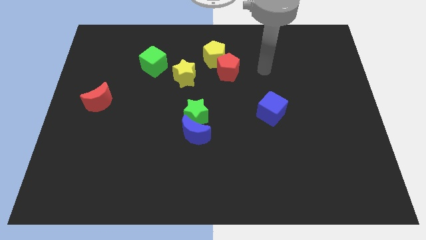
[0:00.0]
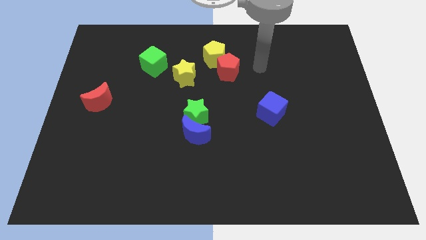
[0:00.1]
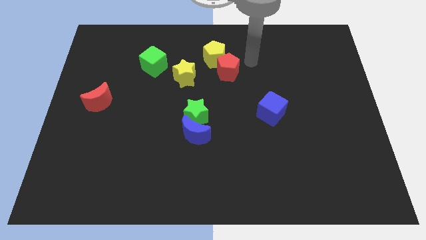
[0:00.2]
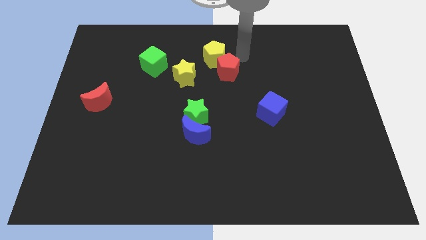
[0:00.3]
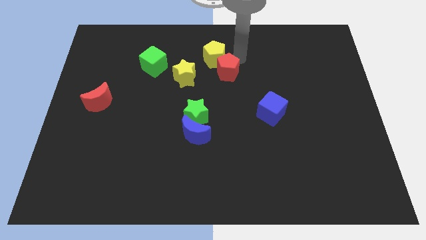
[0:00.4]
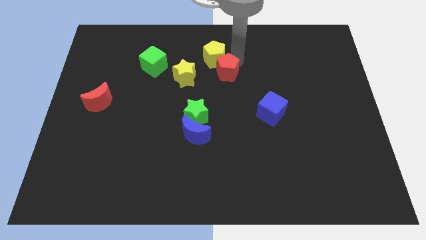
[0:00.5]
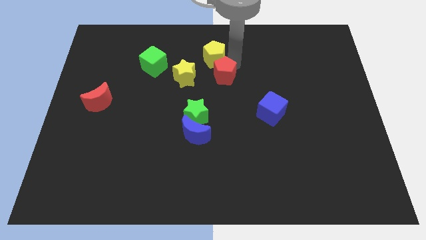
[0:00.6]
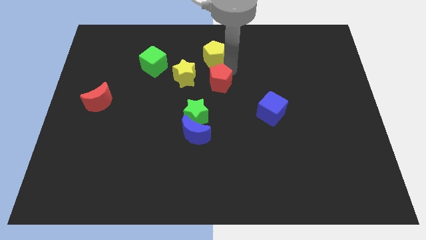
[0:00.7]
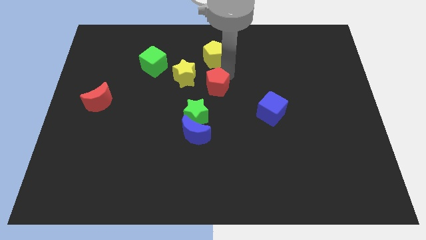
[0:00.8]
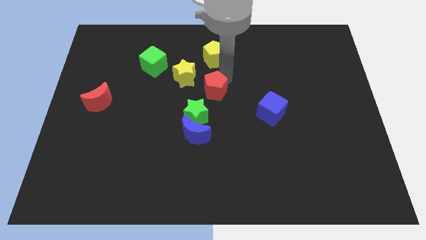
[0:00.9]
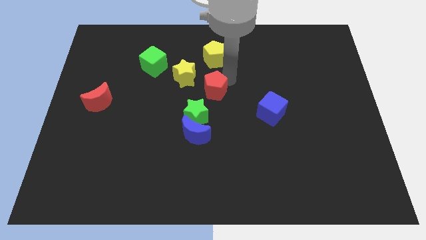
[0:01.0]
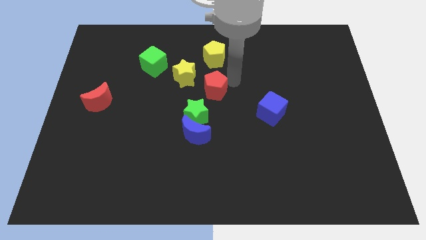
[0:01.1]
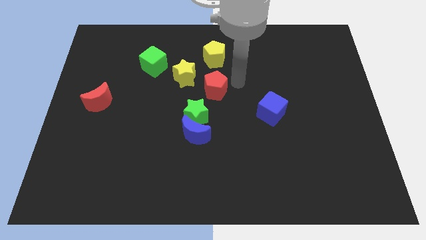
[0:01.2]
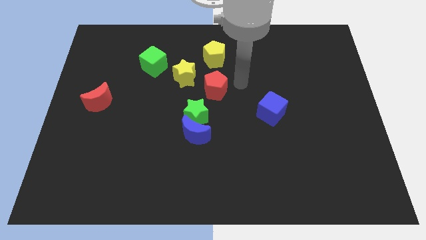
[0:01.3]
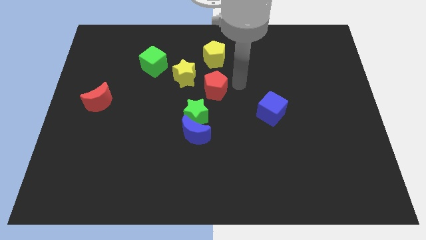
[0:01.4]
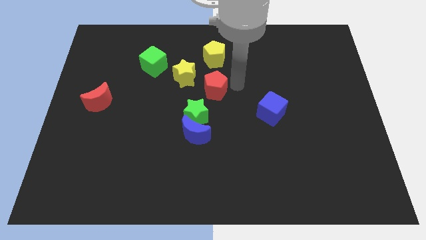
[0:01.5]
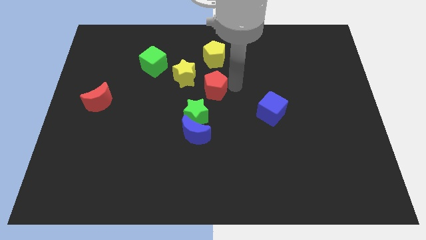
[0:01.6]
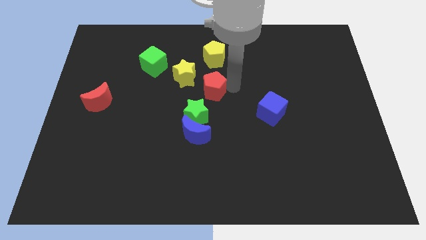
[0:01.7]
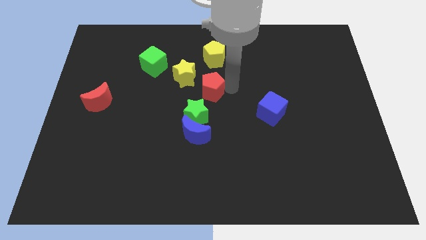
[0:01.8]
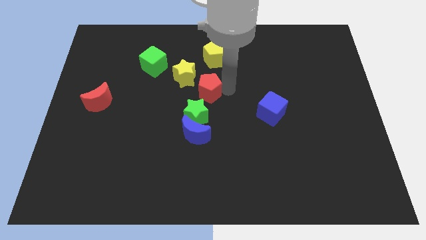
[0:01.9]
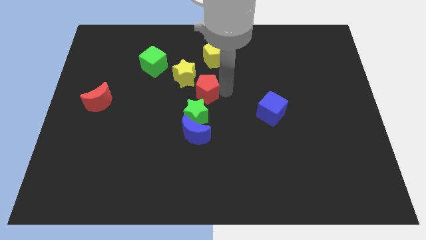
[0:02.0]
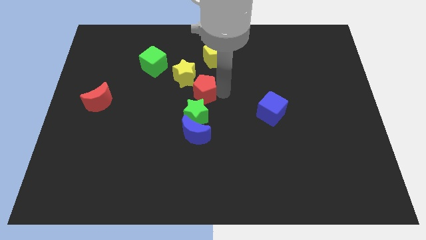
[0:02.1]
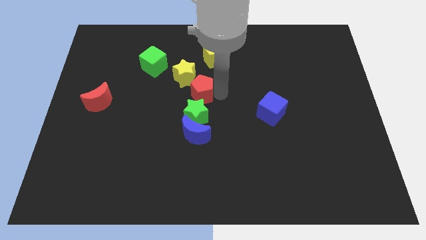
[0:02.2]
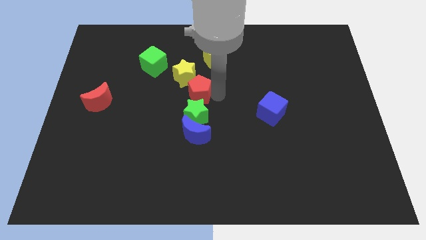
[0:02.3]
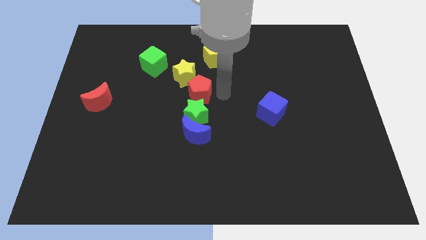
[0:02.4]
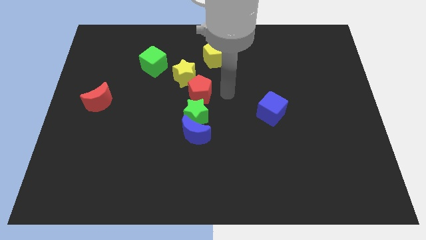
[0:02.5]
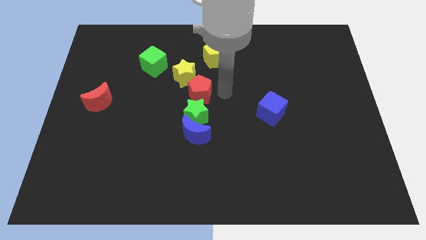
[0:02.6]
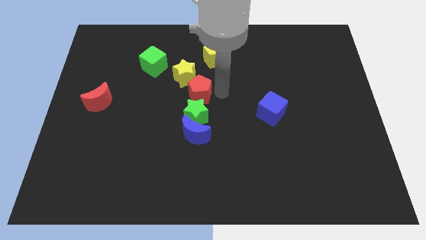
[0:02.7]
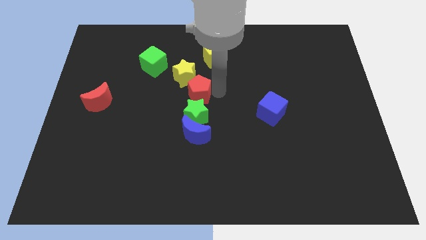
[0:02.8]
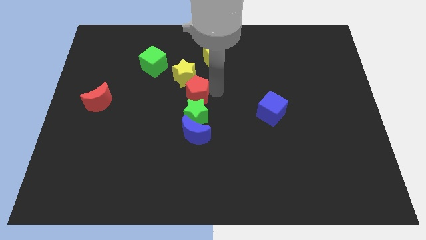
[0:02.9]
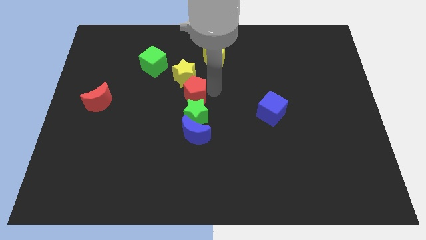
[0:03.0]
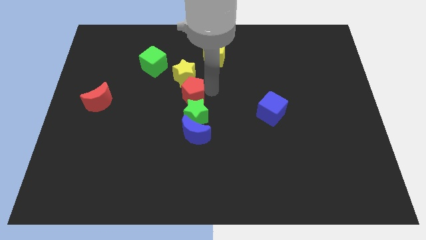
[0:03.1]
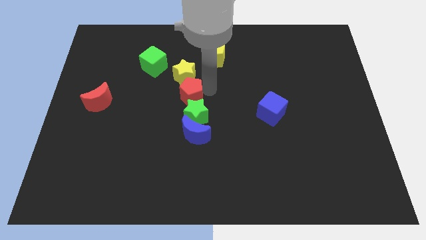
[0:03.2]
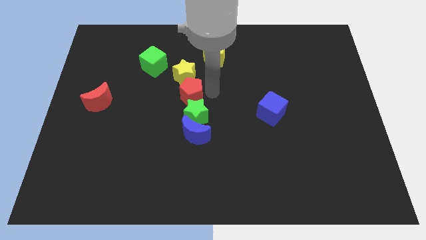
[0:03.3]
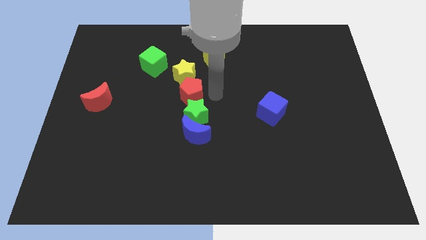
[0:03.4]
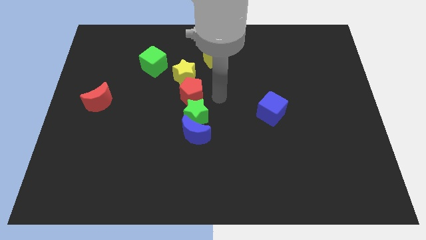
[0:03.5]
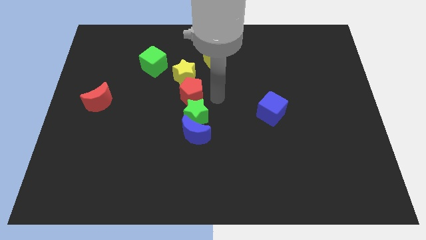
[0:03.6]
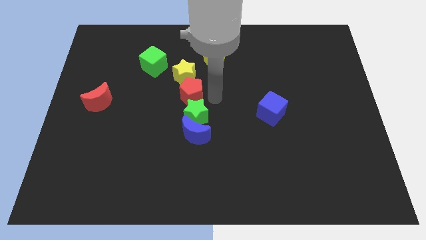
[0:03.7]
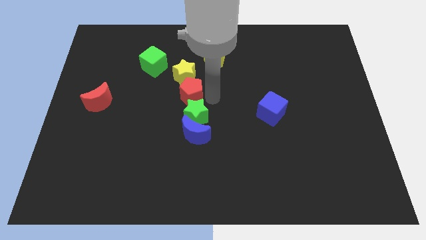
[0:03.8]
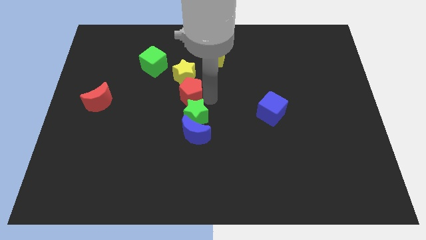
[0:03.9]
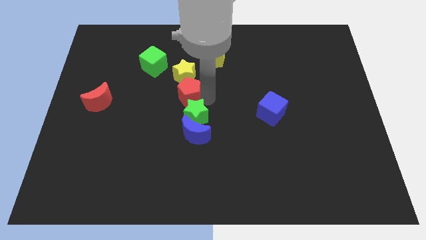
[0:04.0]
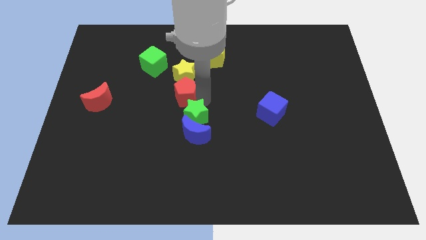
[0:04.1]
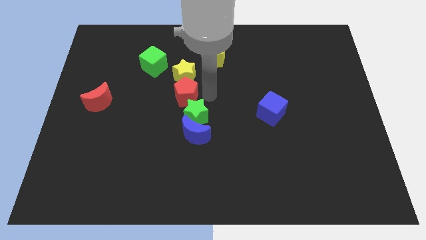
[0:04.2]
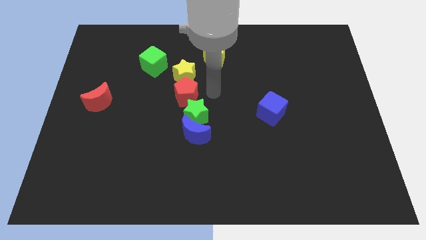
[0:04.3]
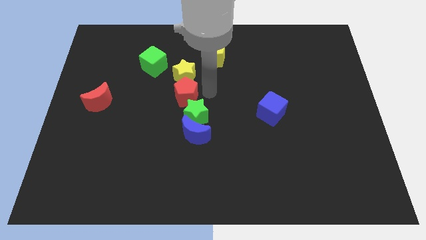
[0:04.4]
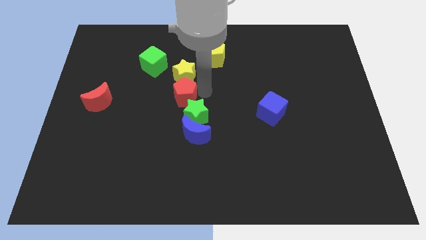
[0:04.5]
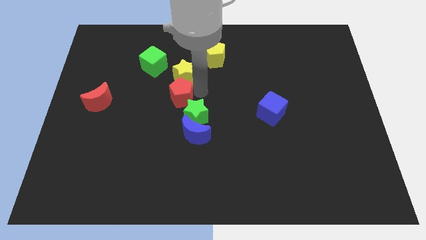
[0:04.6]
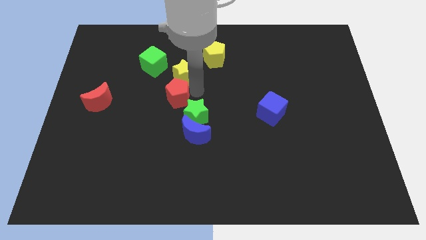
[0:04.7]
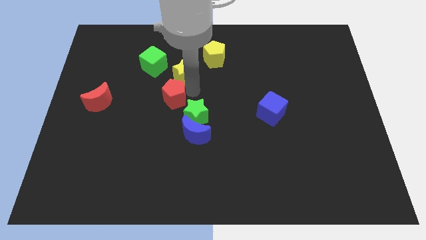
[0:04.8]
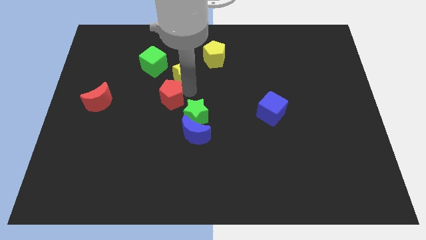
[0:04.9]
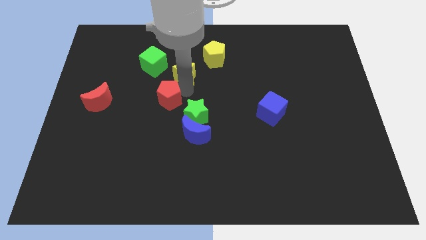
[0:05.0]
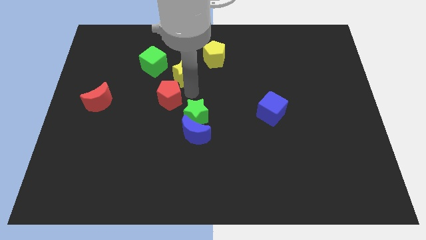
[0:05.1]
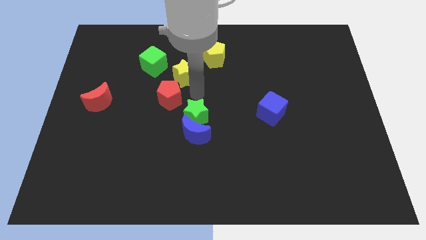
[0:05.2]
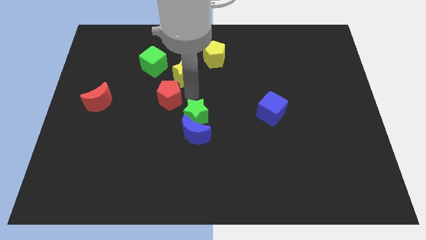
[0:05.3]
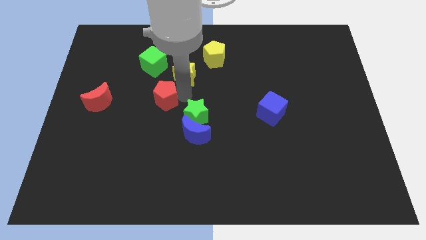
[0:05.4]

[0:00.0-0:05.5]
put the red pentagon to the right of the red moon

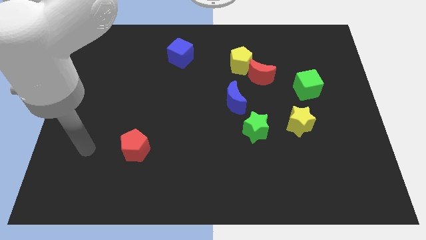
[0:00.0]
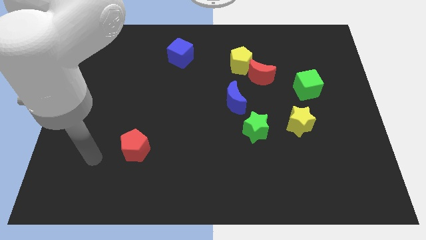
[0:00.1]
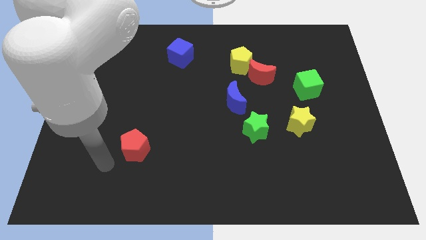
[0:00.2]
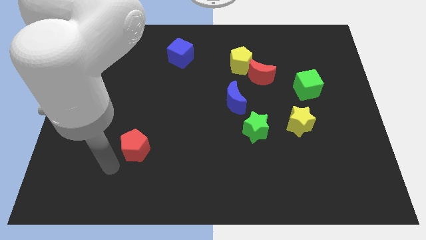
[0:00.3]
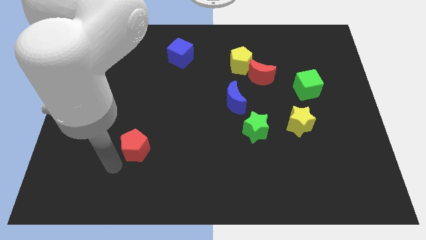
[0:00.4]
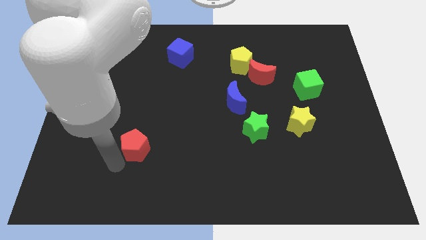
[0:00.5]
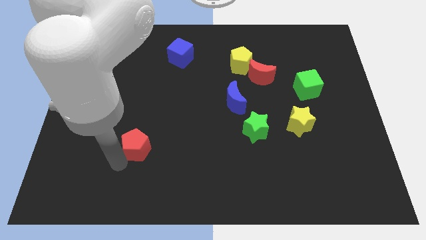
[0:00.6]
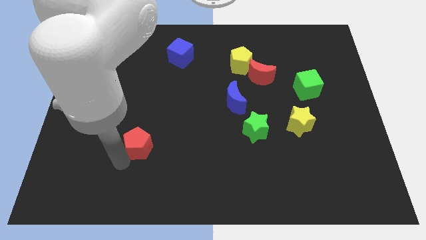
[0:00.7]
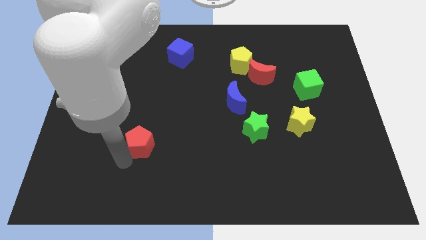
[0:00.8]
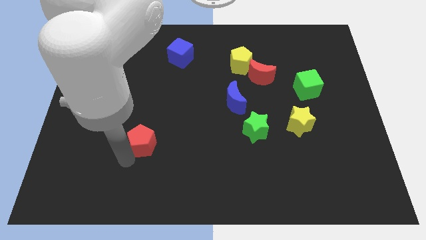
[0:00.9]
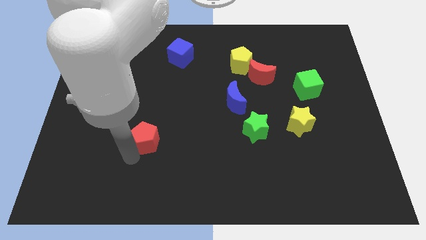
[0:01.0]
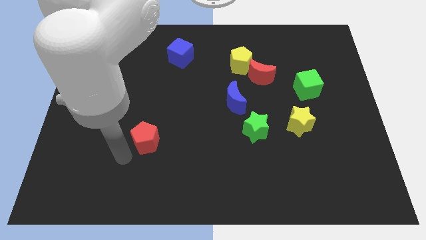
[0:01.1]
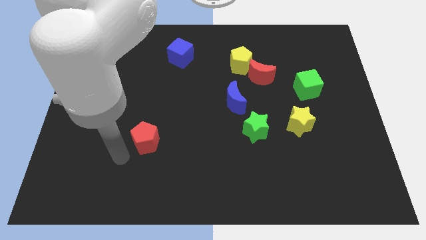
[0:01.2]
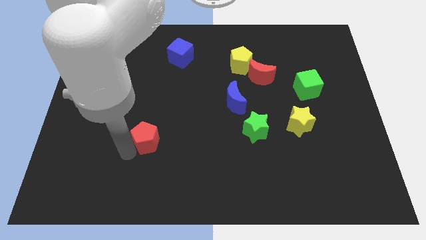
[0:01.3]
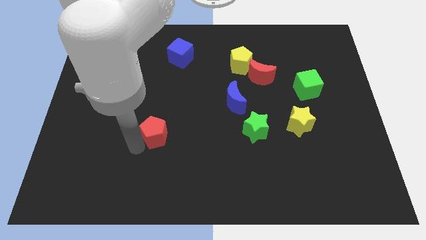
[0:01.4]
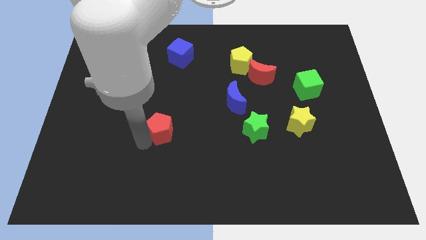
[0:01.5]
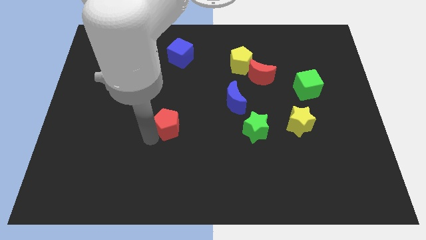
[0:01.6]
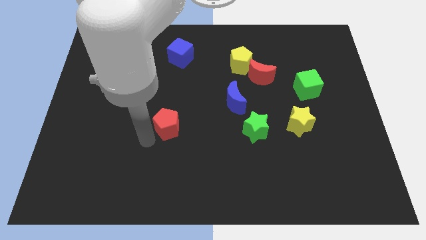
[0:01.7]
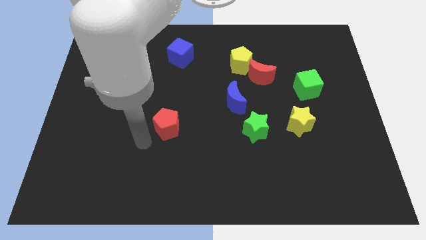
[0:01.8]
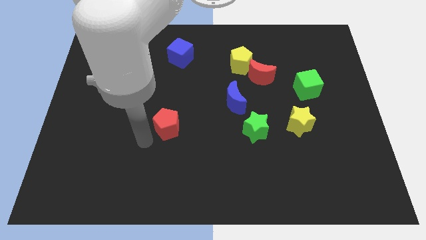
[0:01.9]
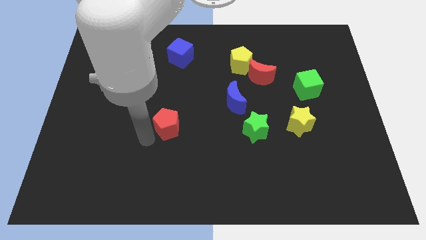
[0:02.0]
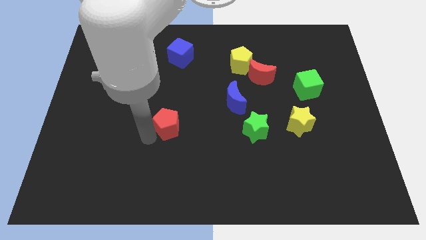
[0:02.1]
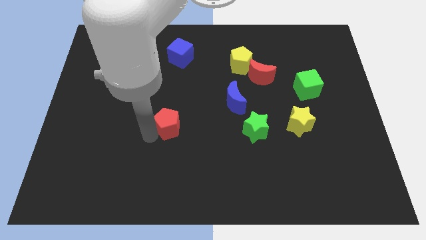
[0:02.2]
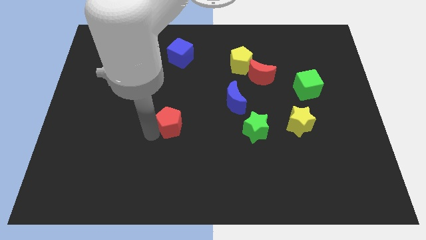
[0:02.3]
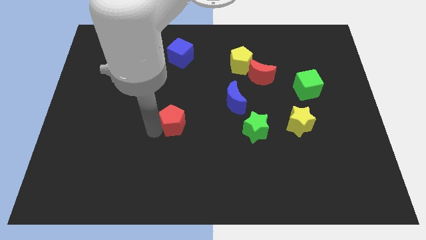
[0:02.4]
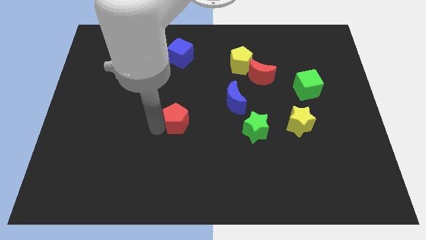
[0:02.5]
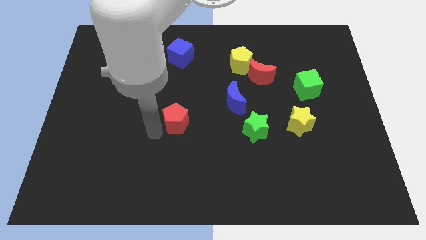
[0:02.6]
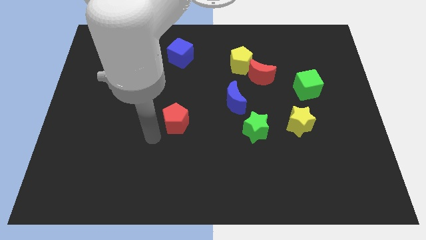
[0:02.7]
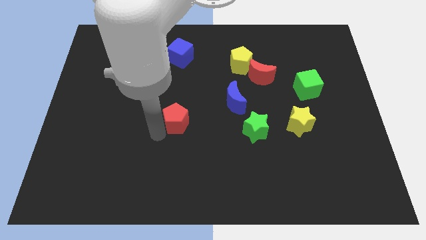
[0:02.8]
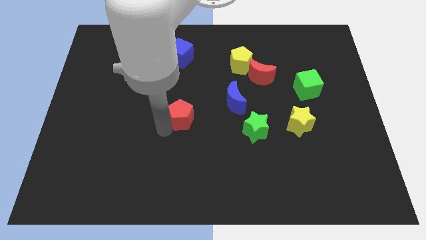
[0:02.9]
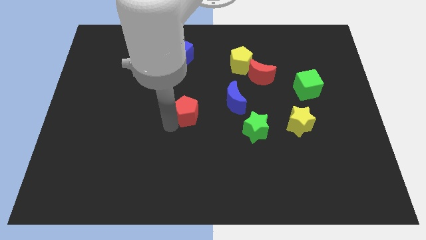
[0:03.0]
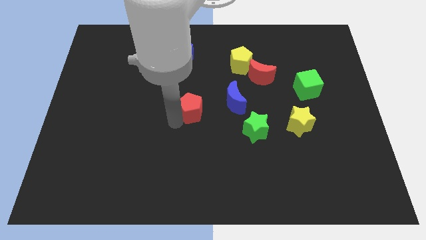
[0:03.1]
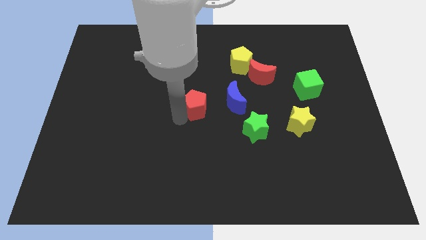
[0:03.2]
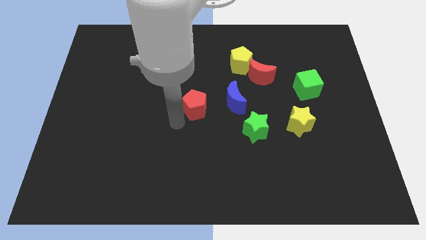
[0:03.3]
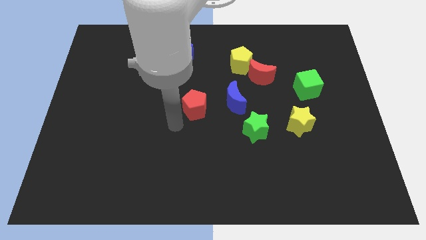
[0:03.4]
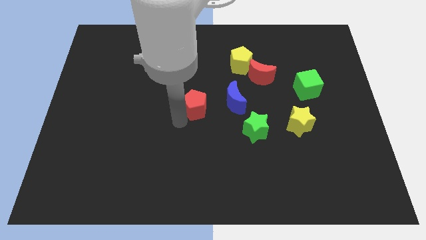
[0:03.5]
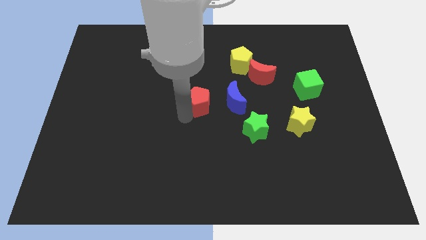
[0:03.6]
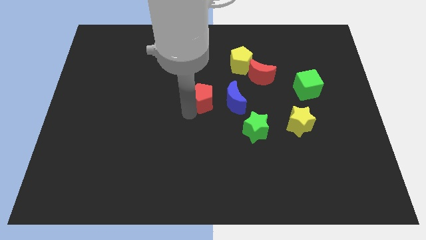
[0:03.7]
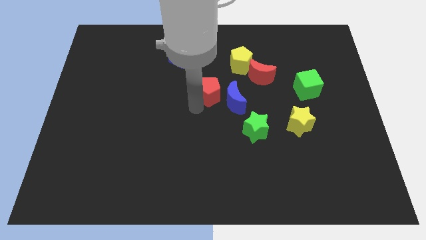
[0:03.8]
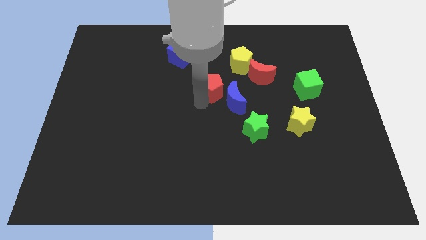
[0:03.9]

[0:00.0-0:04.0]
slide the red pentagon to the left side of the red moon
